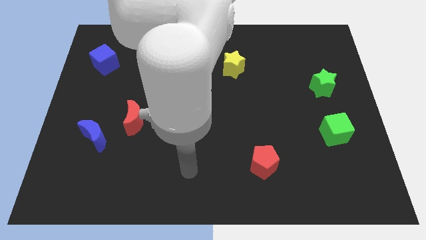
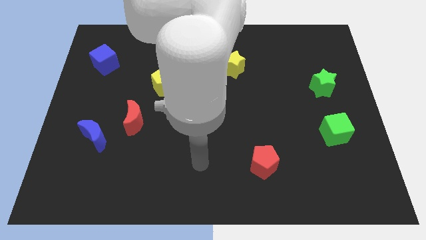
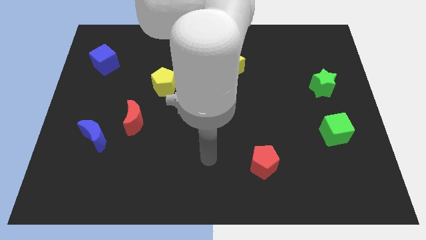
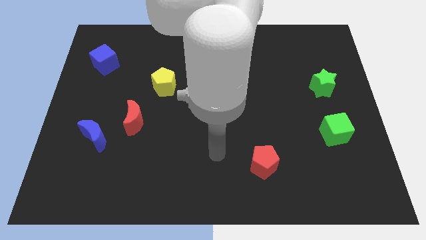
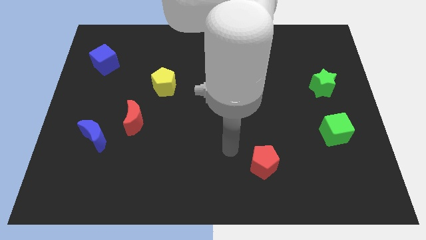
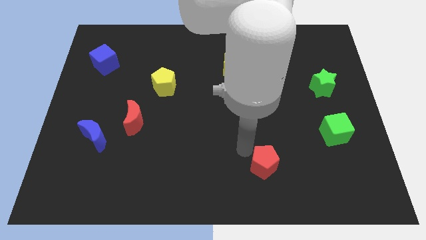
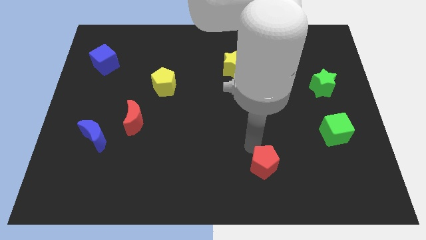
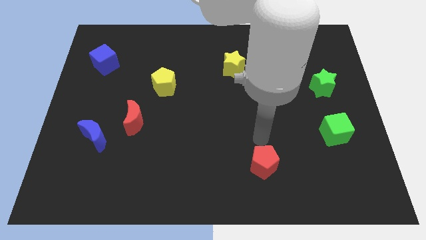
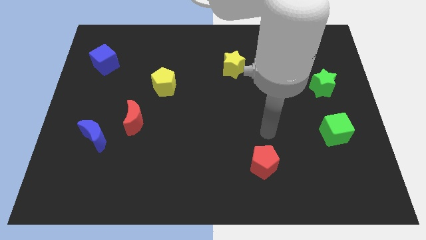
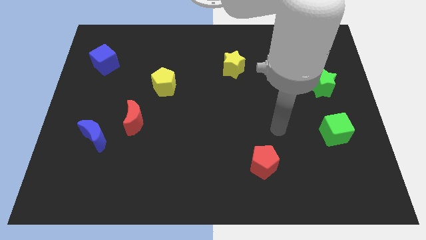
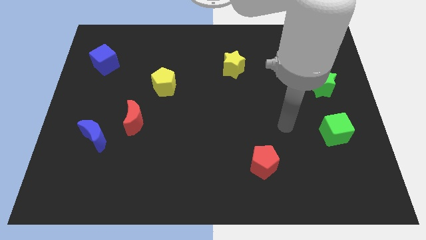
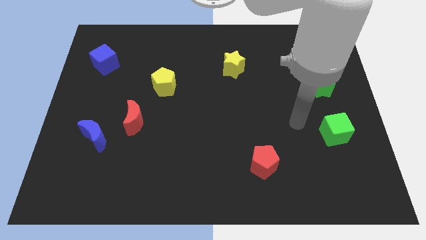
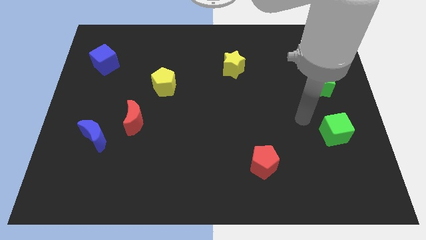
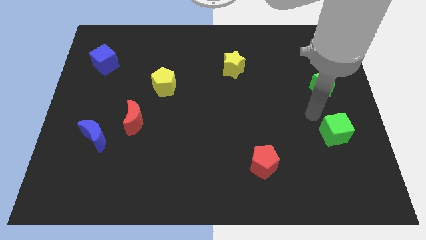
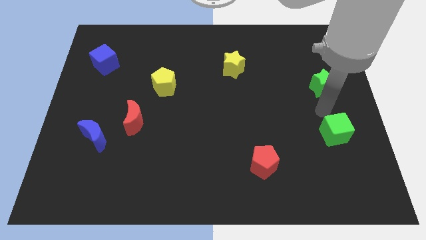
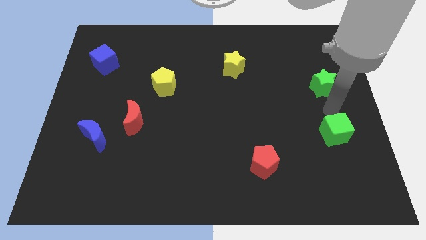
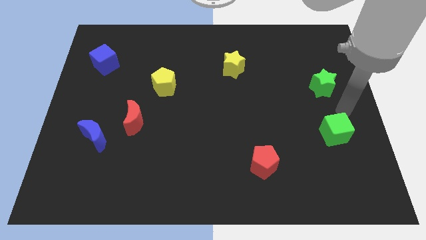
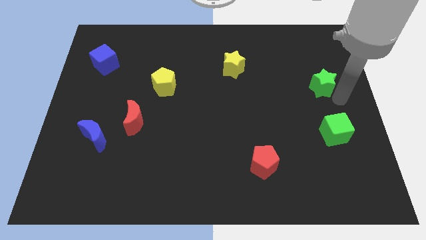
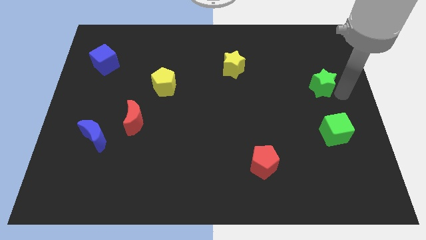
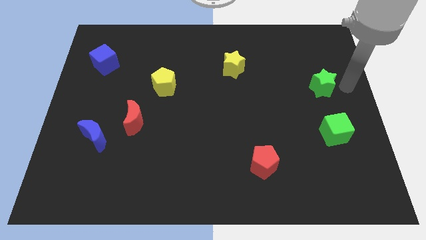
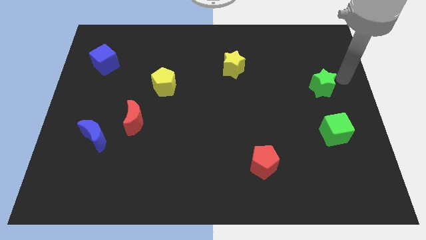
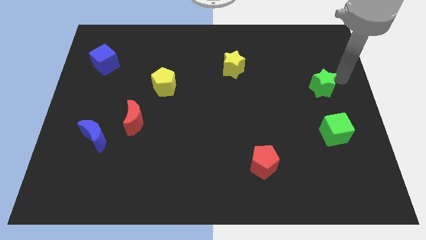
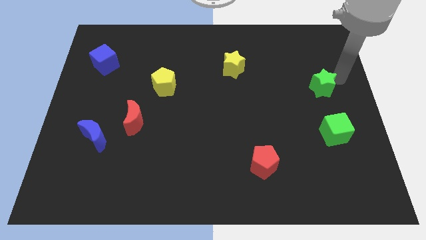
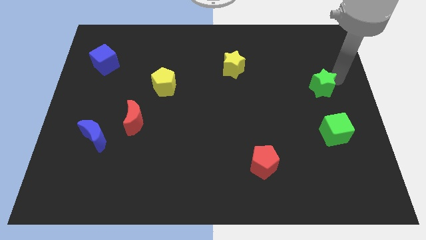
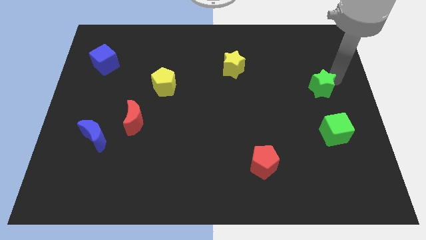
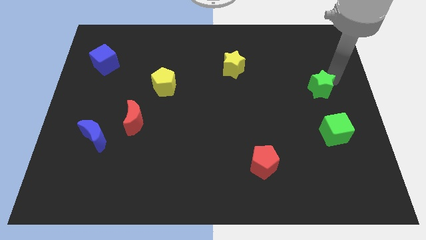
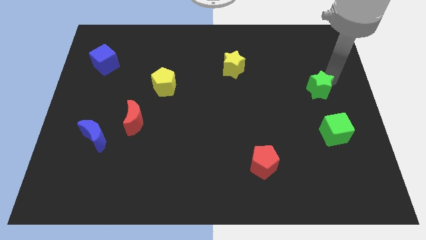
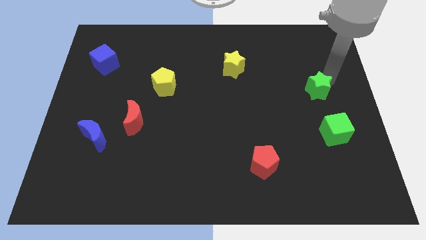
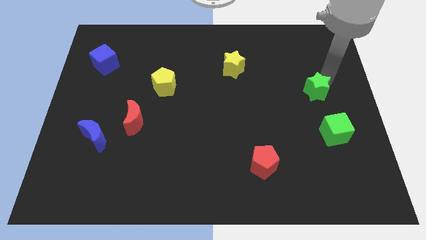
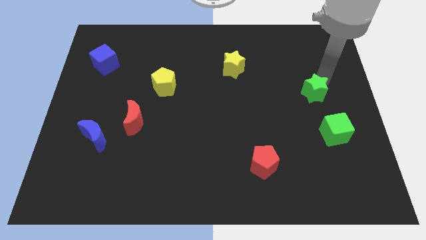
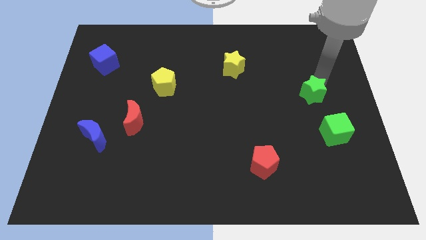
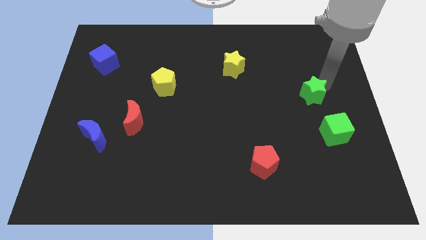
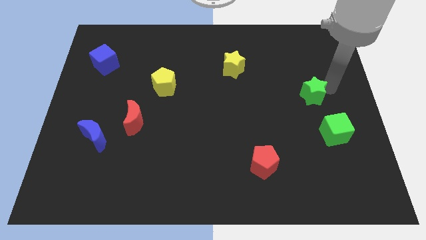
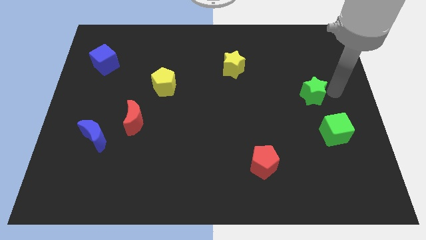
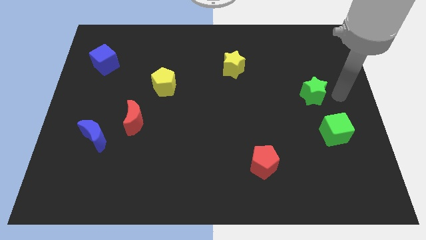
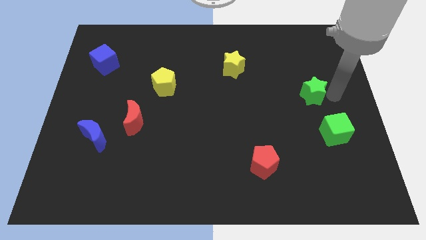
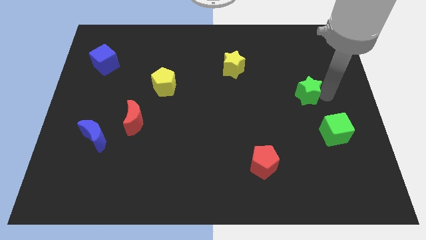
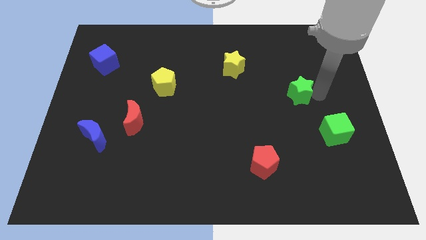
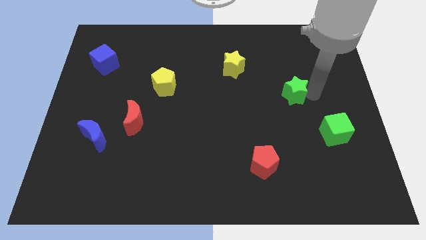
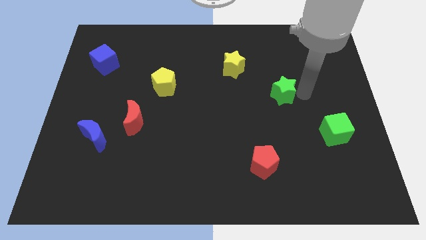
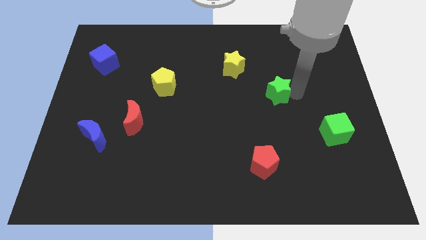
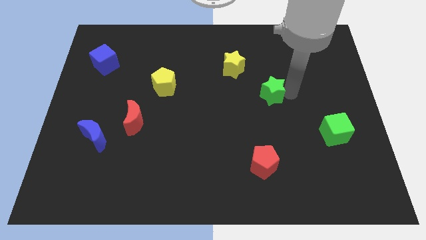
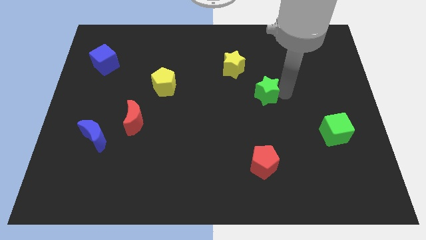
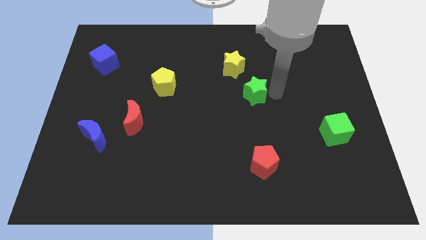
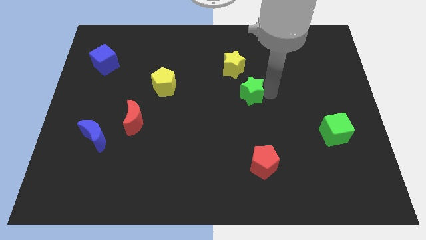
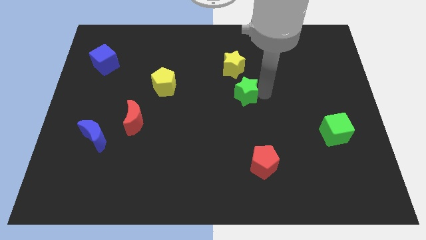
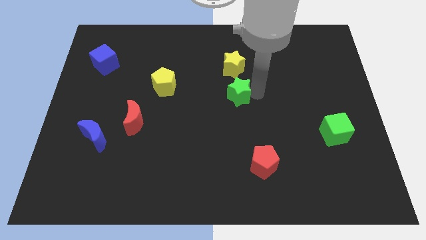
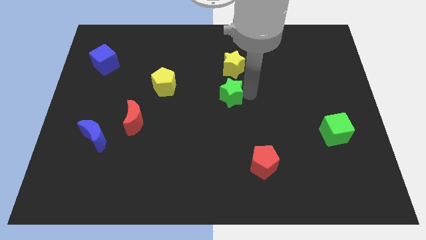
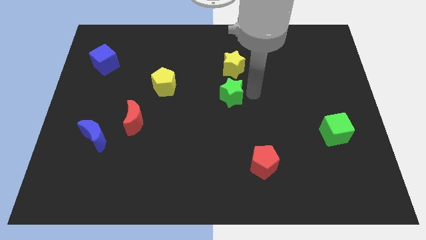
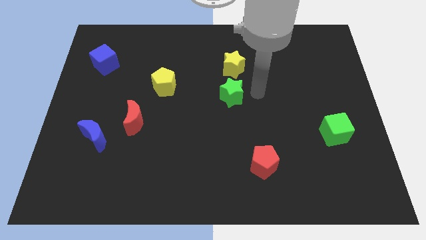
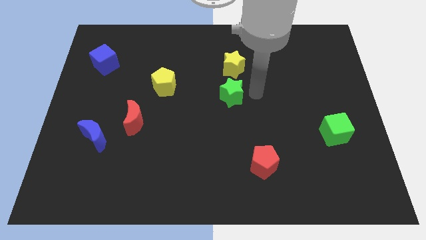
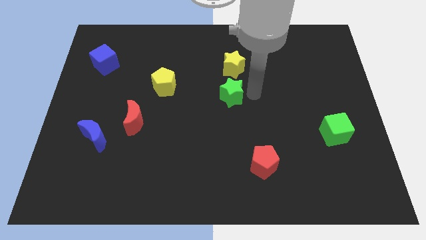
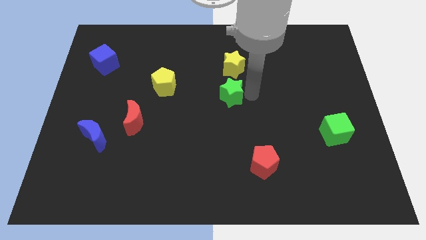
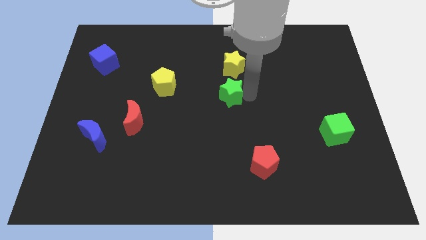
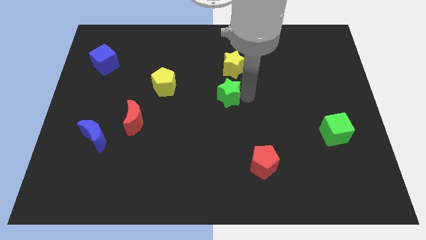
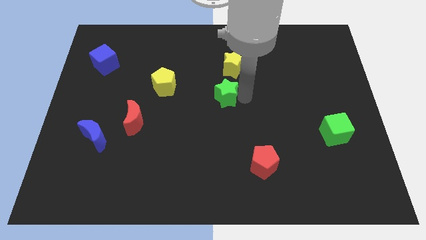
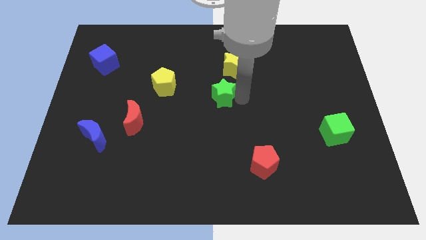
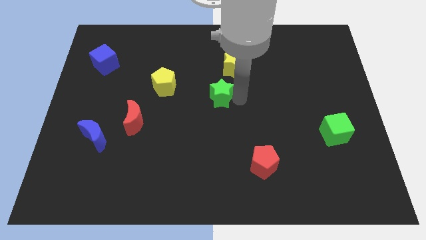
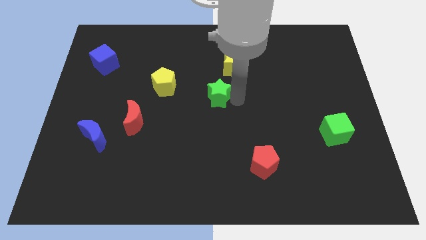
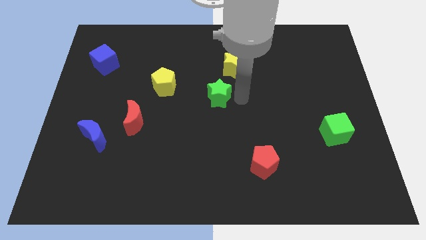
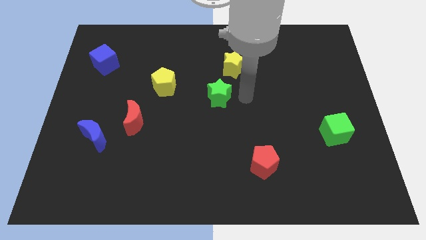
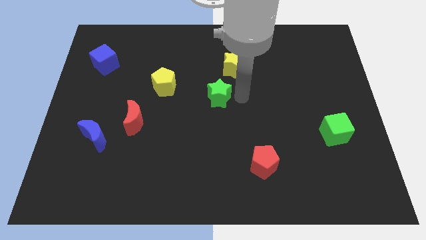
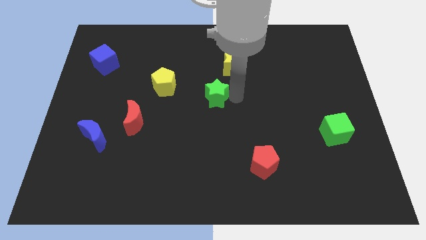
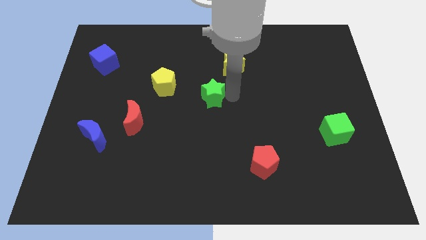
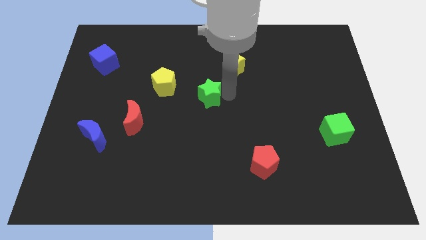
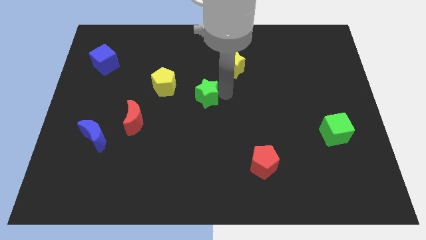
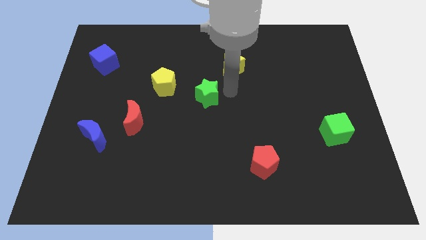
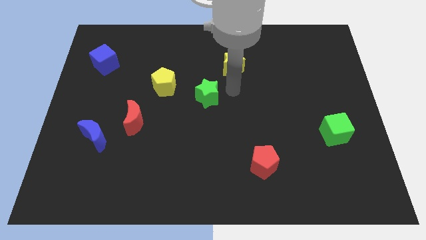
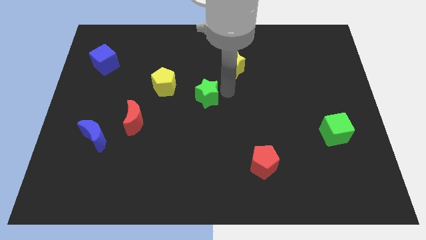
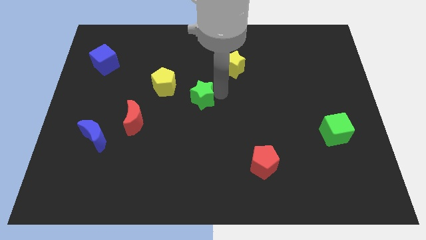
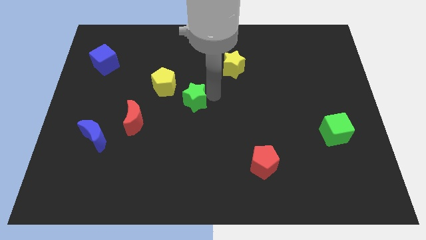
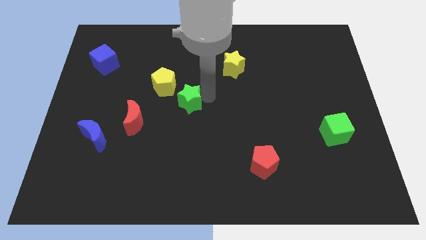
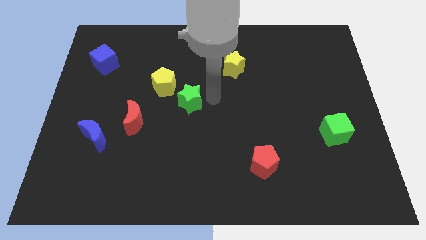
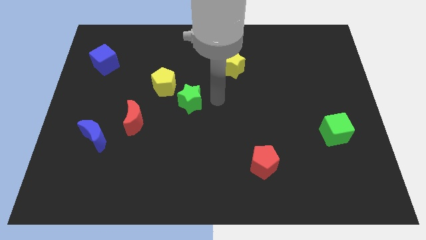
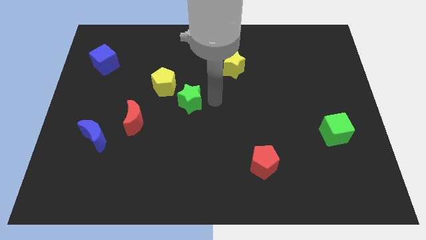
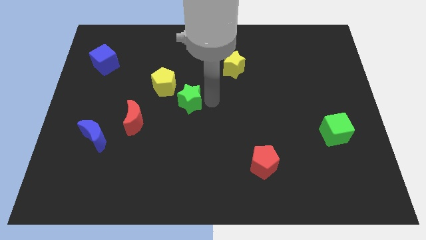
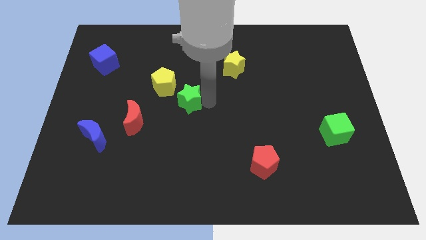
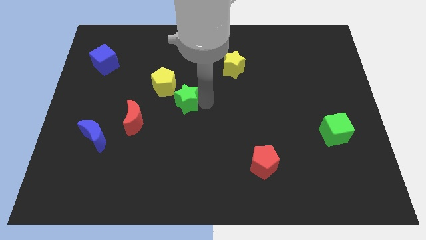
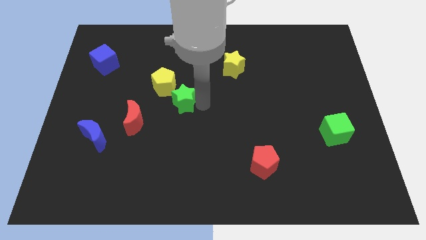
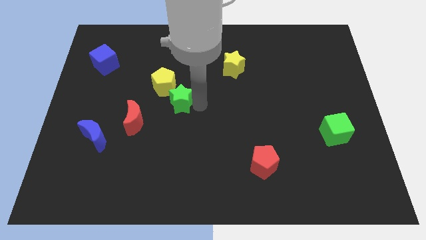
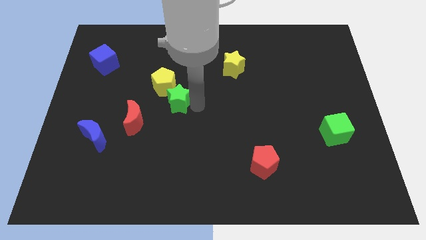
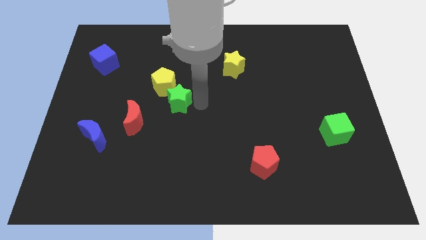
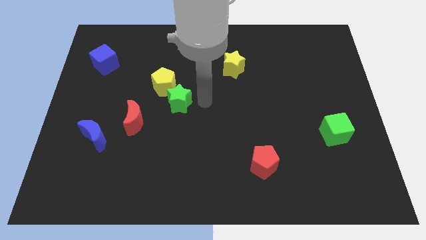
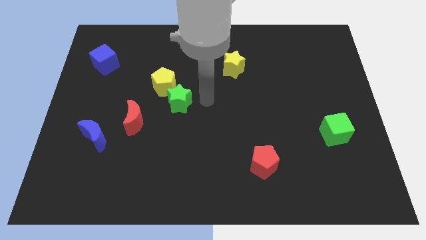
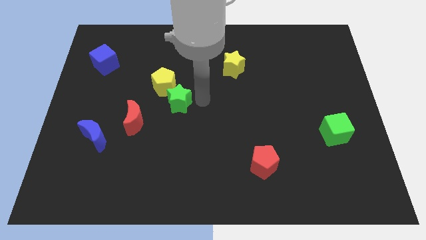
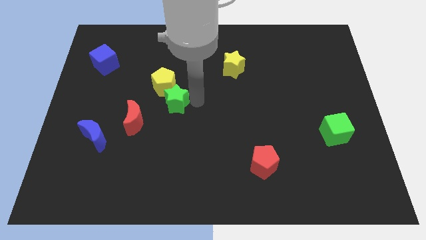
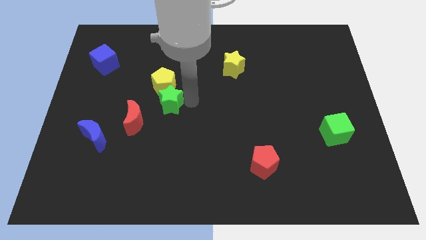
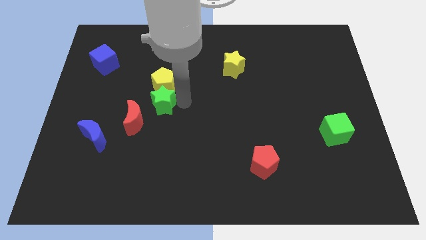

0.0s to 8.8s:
put the green star diagonally down and to the left of the yellow pentagon
